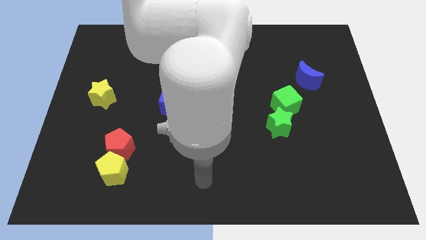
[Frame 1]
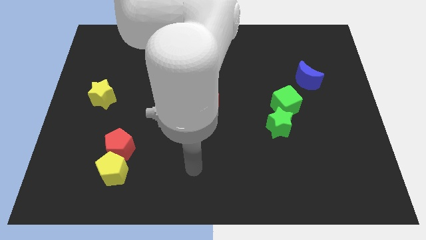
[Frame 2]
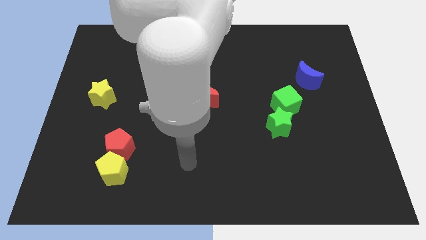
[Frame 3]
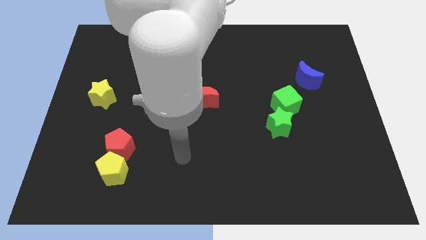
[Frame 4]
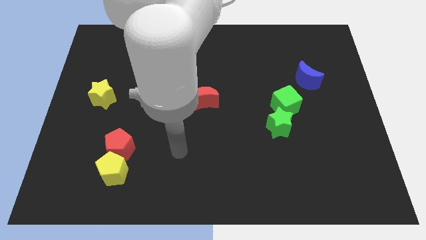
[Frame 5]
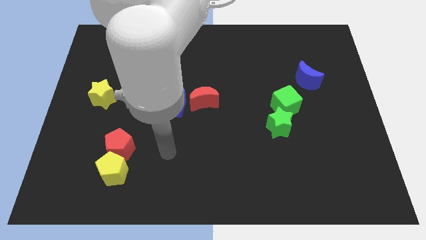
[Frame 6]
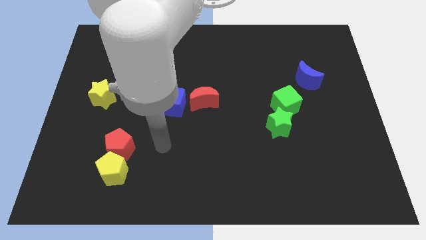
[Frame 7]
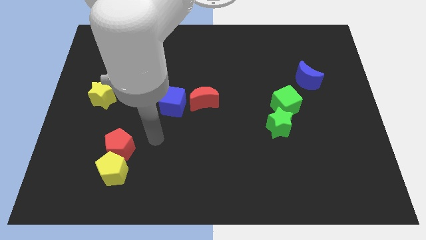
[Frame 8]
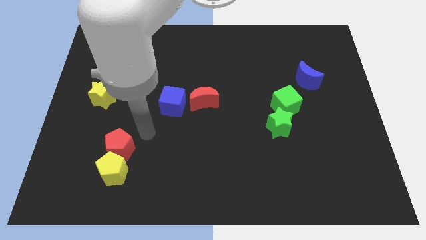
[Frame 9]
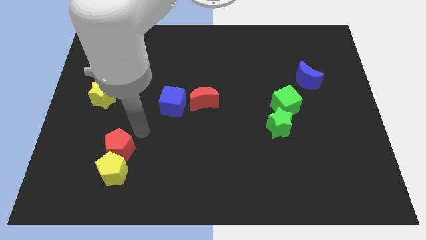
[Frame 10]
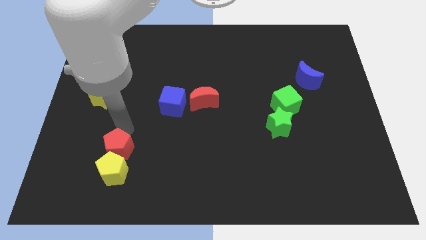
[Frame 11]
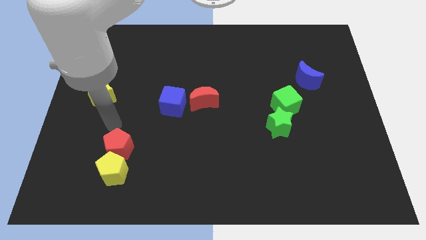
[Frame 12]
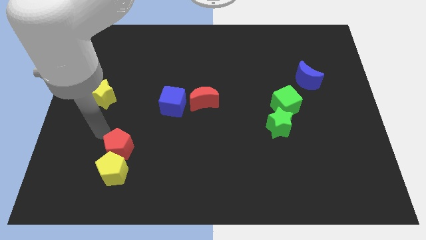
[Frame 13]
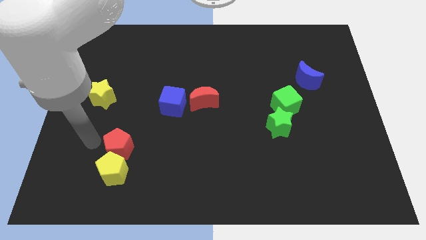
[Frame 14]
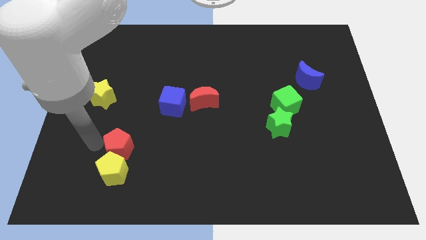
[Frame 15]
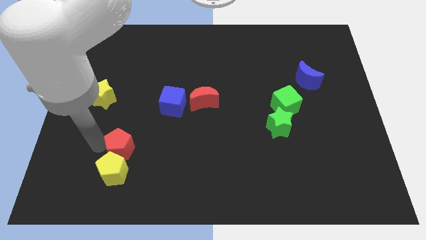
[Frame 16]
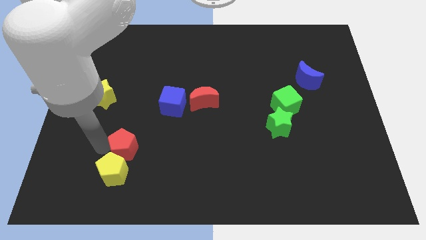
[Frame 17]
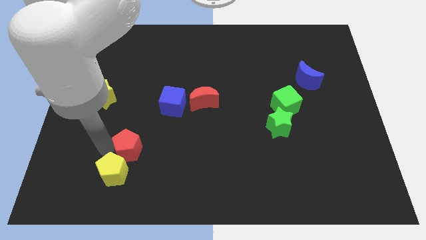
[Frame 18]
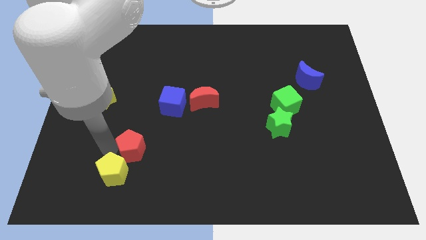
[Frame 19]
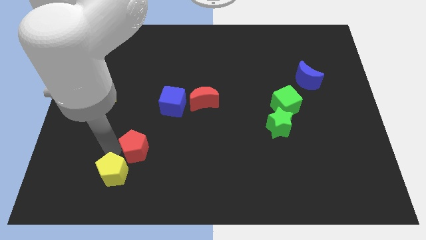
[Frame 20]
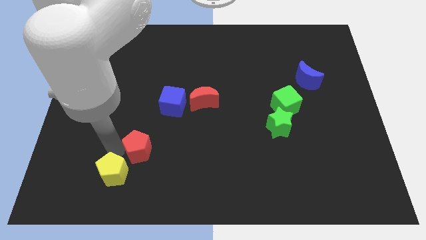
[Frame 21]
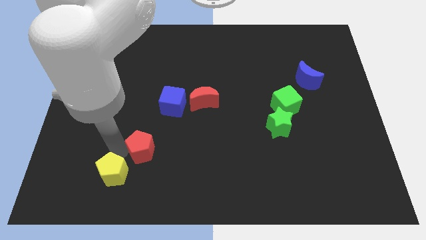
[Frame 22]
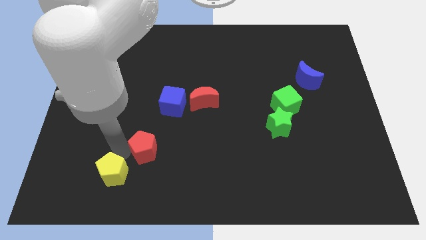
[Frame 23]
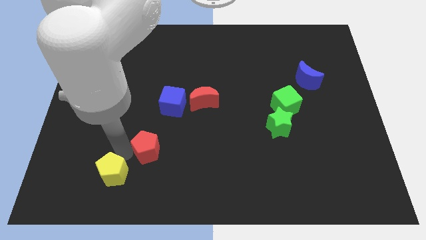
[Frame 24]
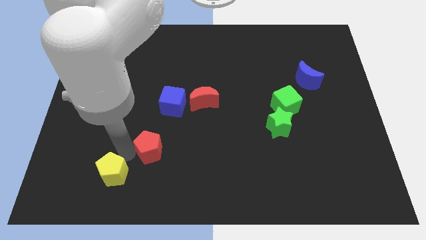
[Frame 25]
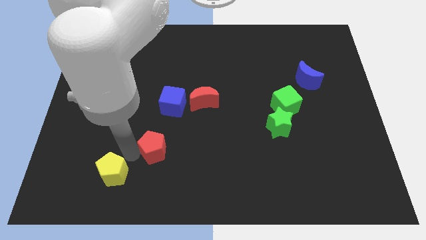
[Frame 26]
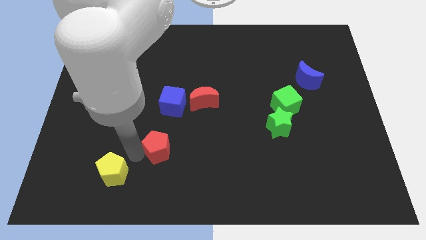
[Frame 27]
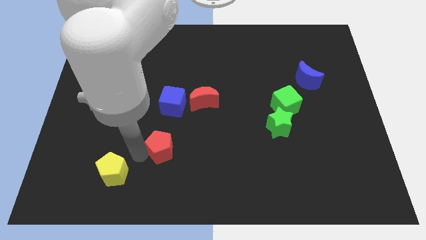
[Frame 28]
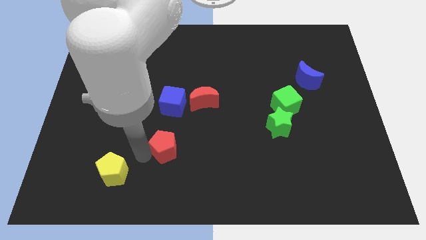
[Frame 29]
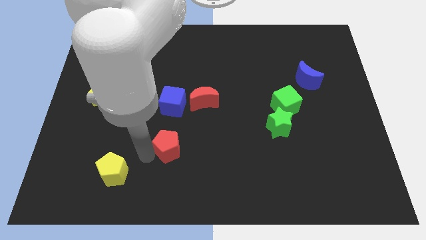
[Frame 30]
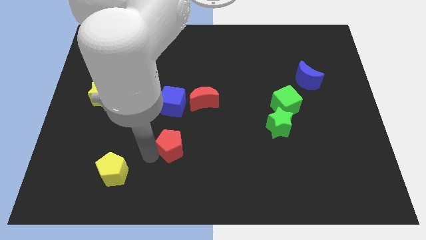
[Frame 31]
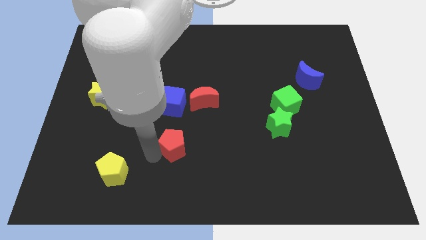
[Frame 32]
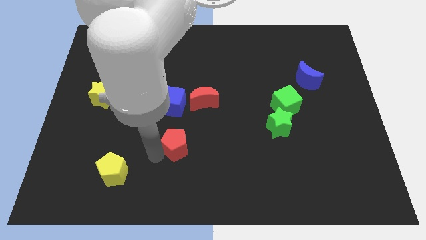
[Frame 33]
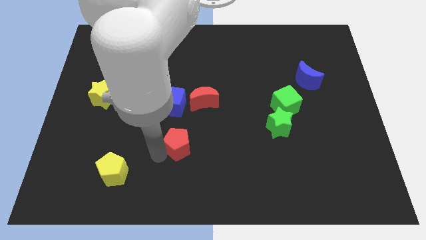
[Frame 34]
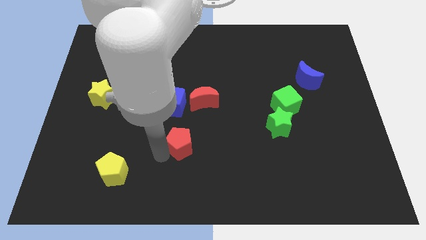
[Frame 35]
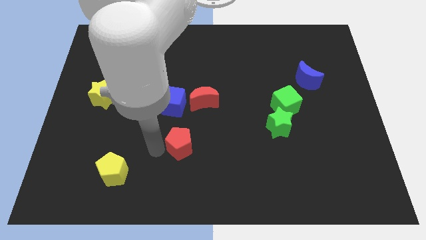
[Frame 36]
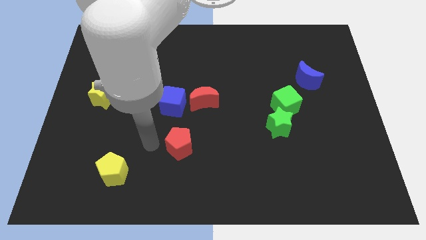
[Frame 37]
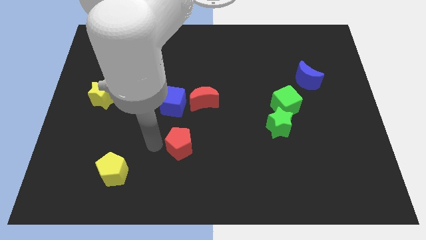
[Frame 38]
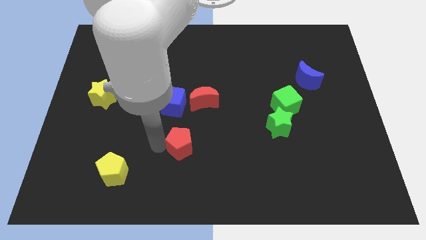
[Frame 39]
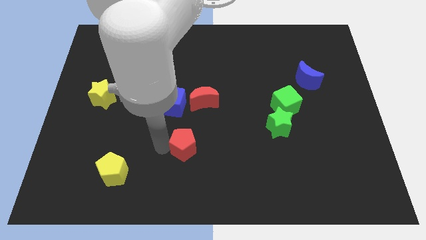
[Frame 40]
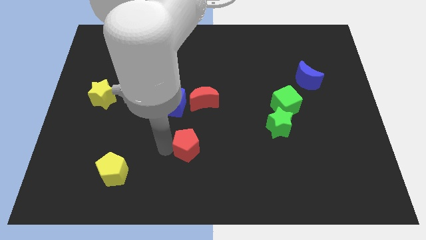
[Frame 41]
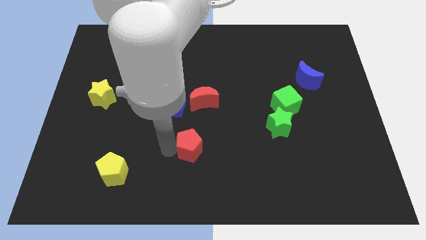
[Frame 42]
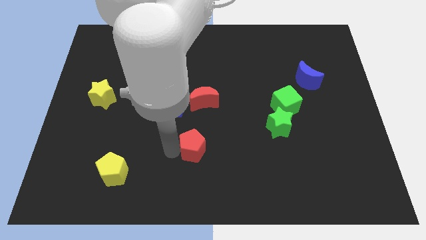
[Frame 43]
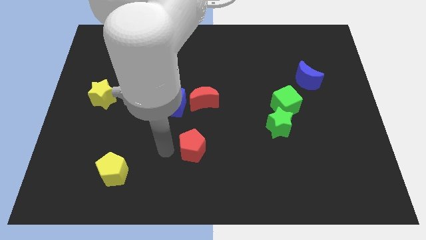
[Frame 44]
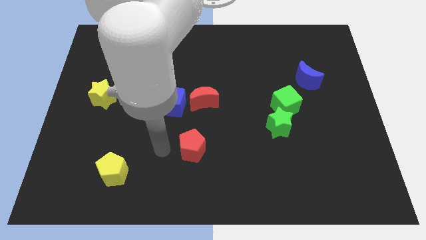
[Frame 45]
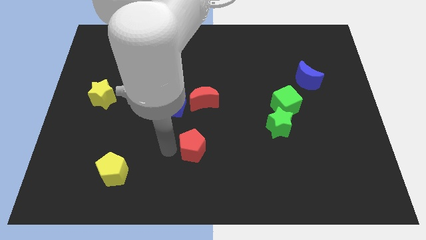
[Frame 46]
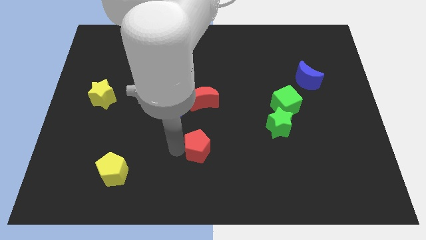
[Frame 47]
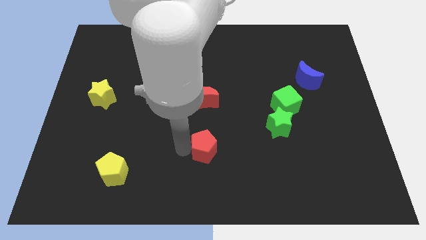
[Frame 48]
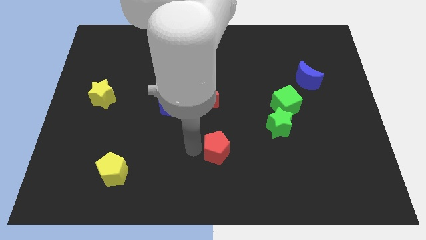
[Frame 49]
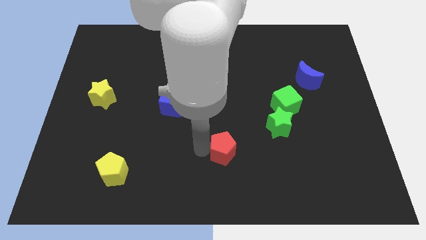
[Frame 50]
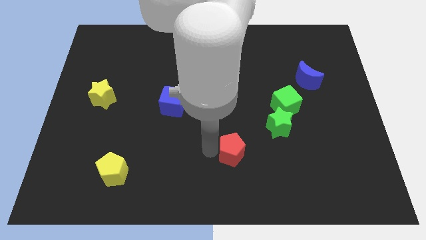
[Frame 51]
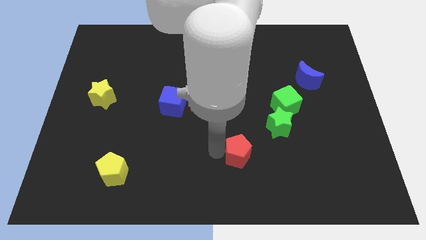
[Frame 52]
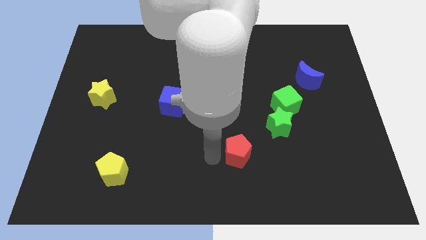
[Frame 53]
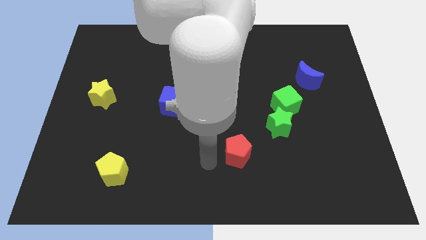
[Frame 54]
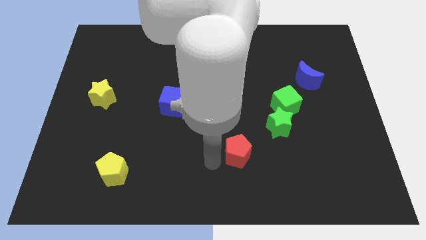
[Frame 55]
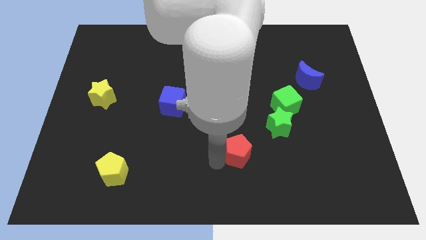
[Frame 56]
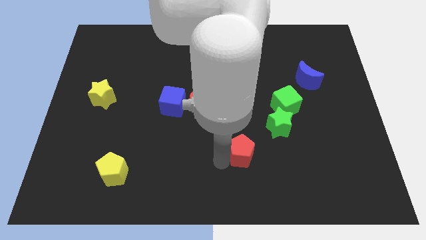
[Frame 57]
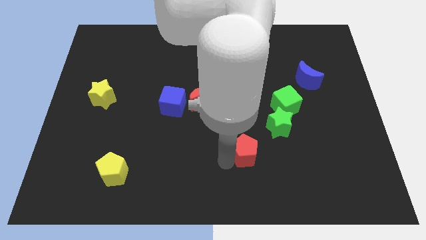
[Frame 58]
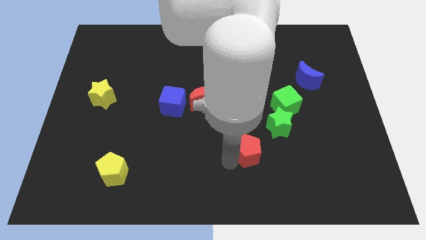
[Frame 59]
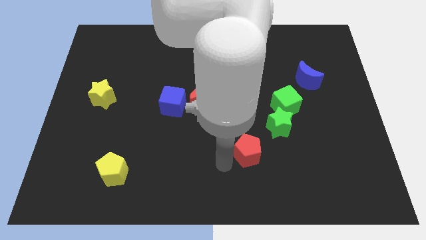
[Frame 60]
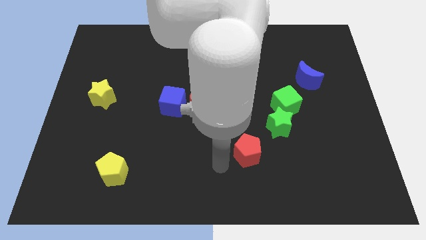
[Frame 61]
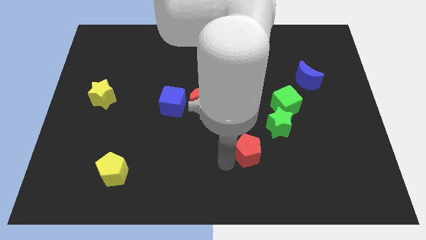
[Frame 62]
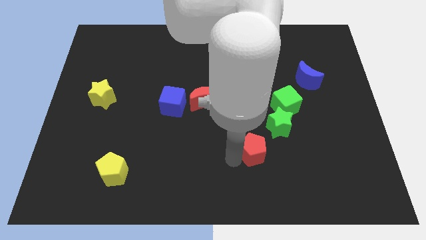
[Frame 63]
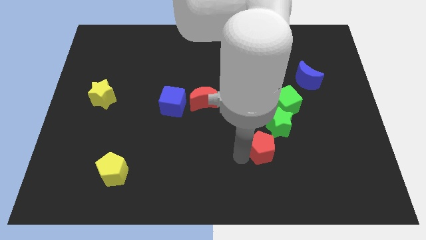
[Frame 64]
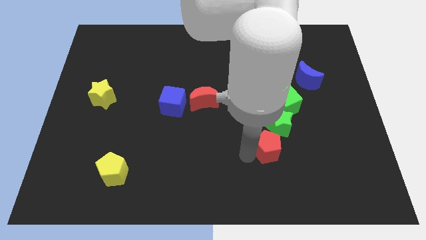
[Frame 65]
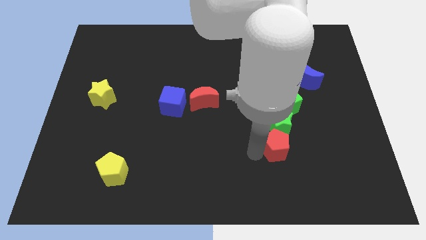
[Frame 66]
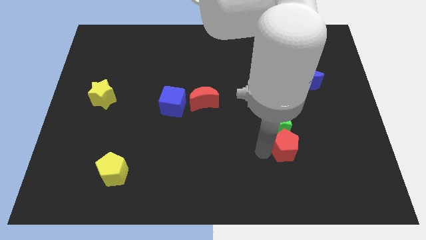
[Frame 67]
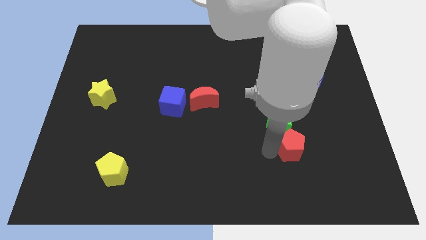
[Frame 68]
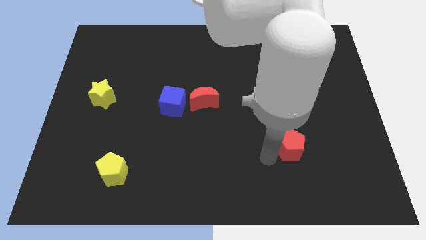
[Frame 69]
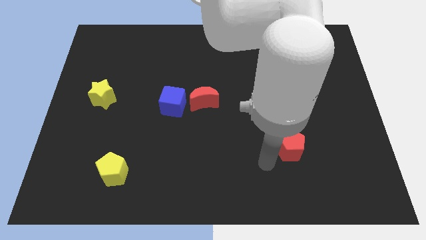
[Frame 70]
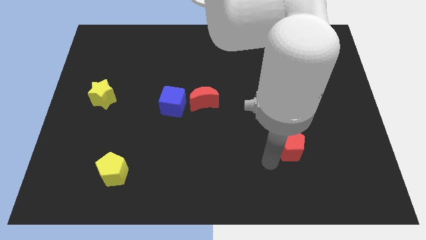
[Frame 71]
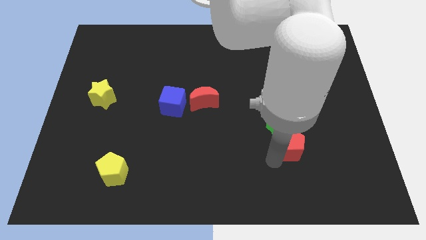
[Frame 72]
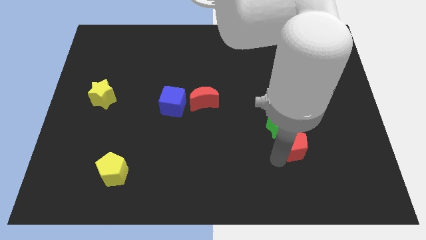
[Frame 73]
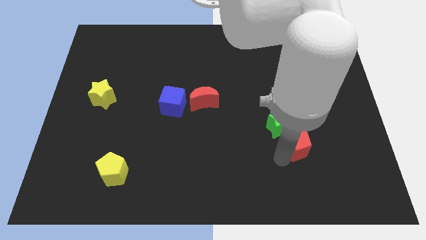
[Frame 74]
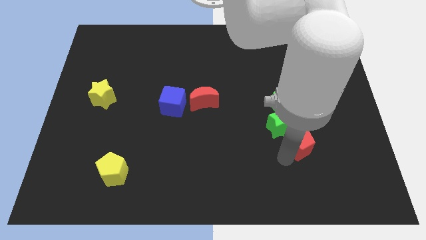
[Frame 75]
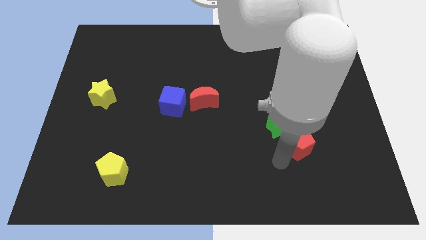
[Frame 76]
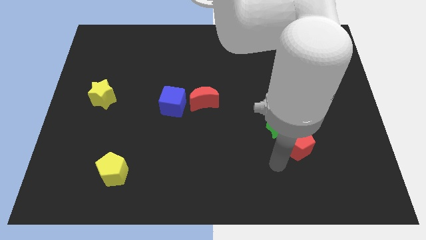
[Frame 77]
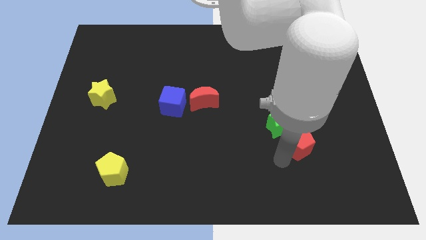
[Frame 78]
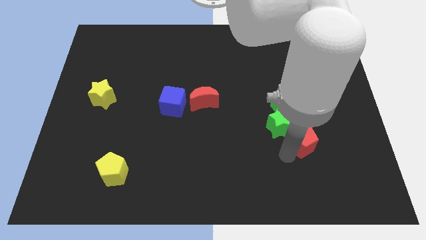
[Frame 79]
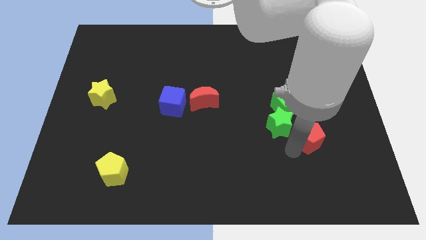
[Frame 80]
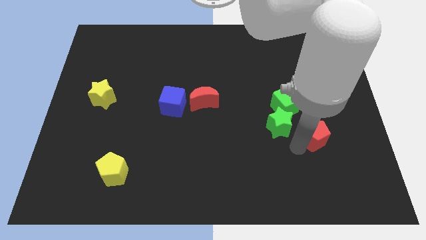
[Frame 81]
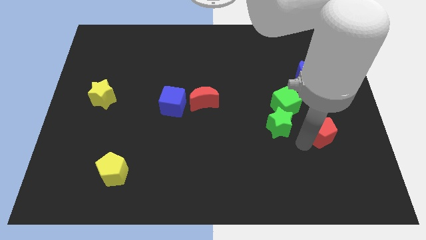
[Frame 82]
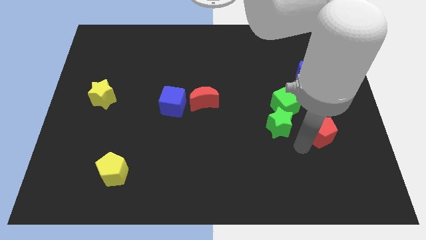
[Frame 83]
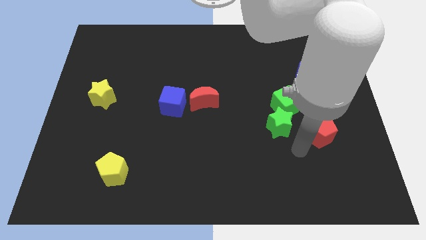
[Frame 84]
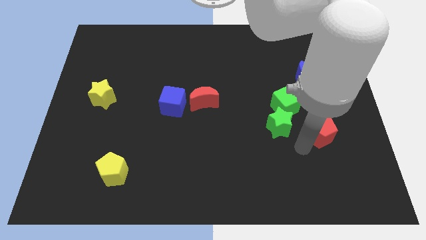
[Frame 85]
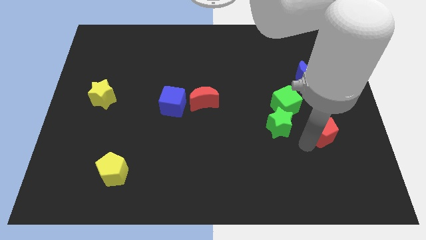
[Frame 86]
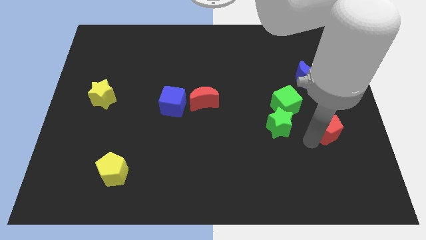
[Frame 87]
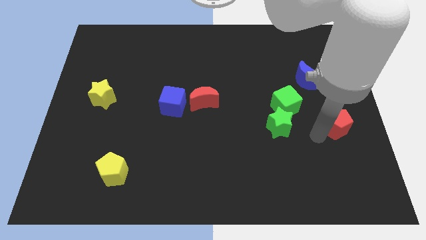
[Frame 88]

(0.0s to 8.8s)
put the red pentagon to the right side
